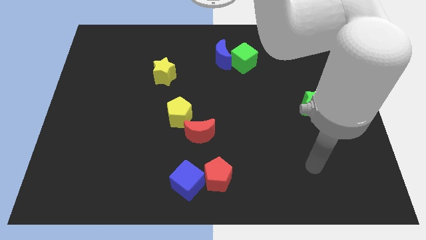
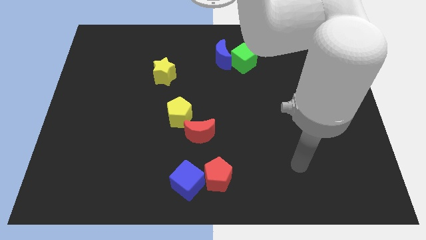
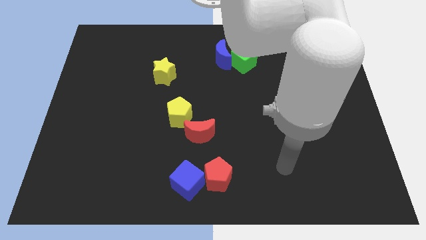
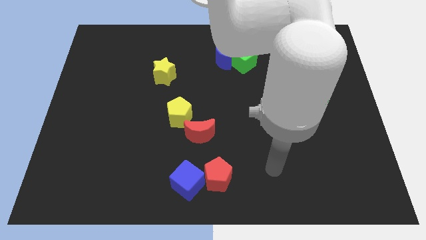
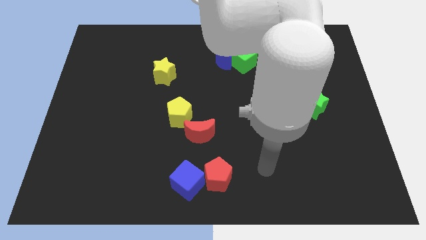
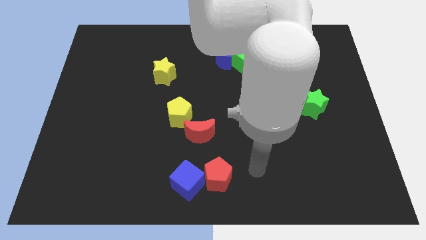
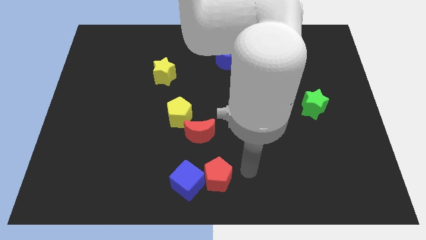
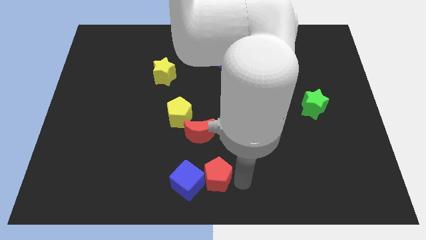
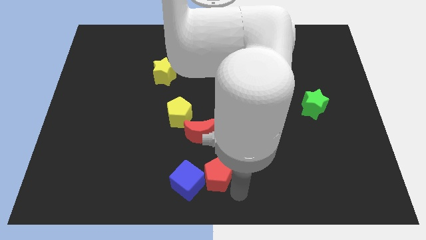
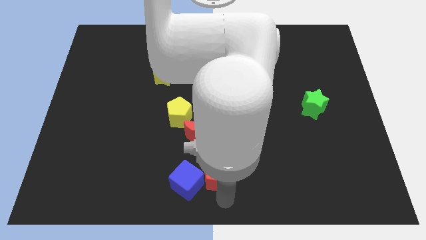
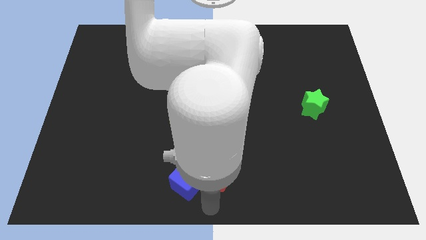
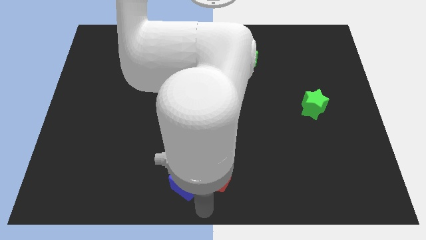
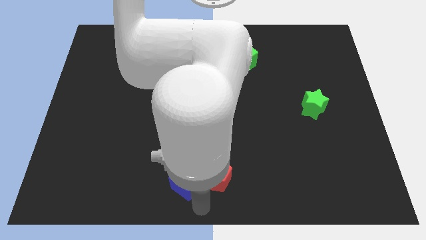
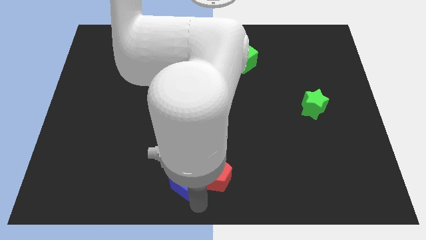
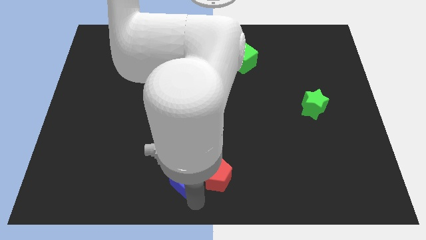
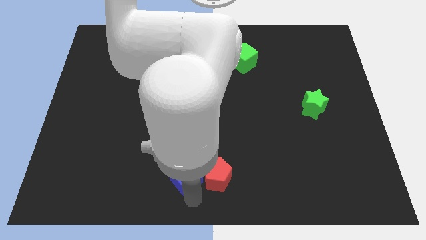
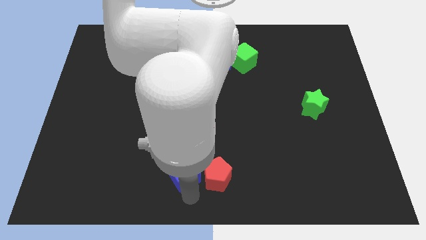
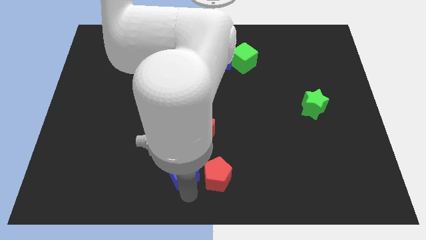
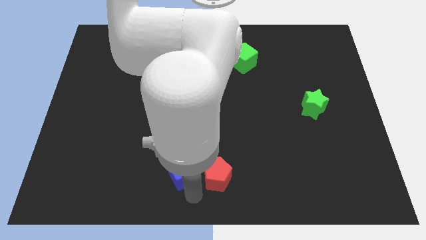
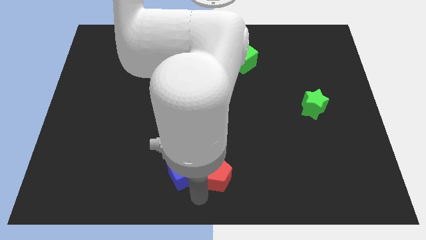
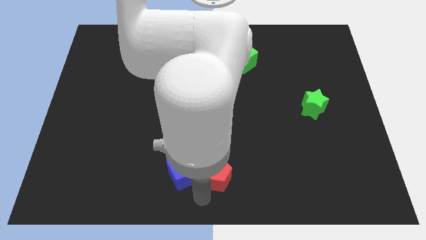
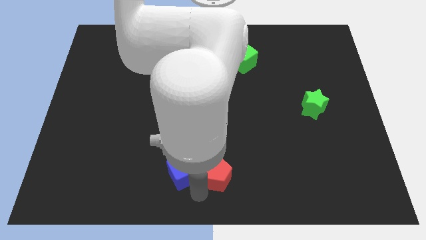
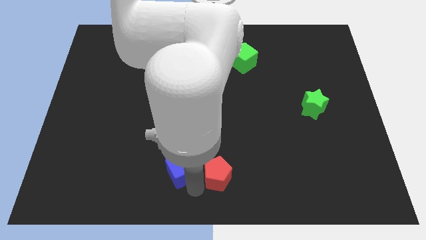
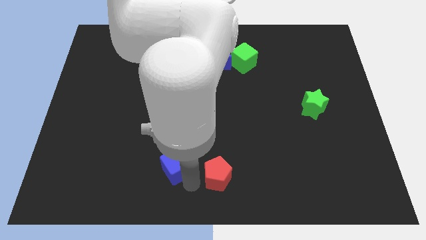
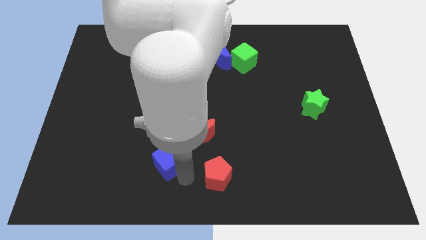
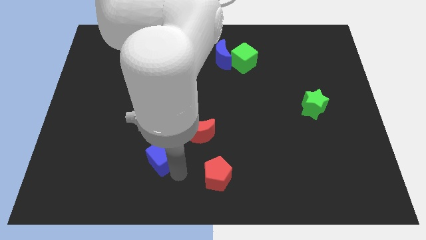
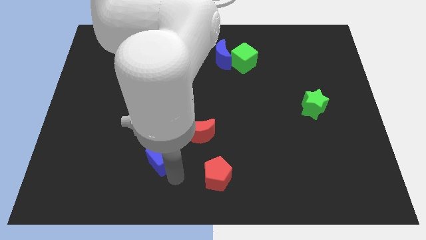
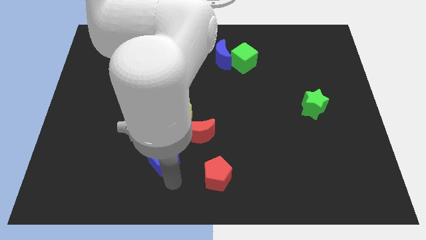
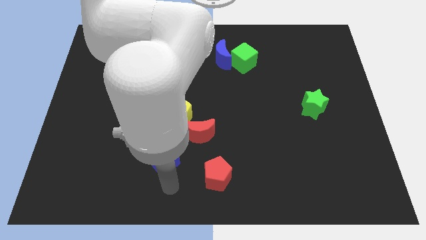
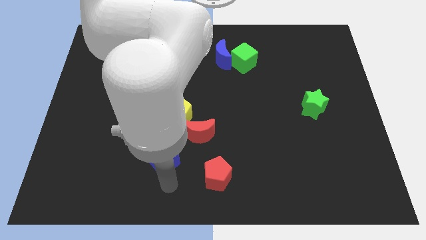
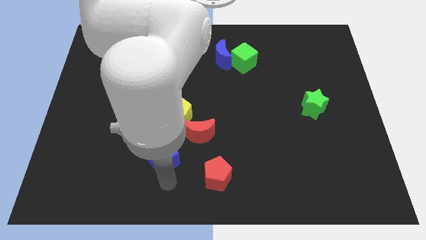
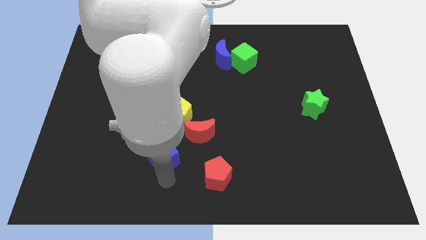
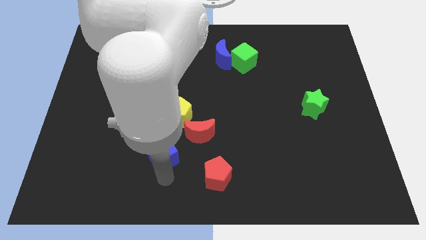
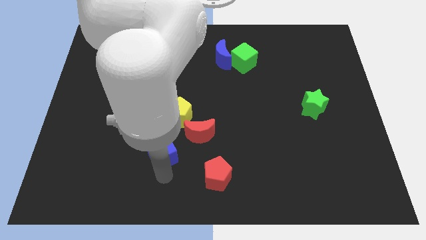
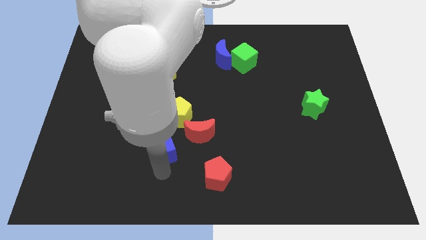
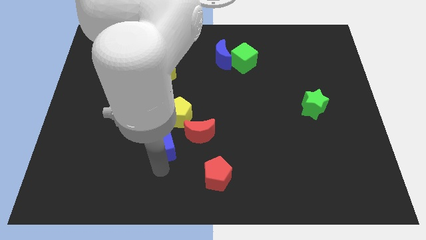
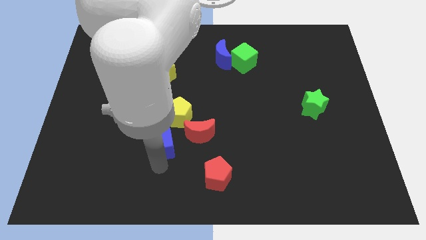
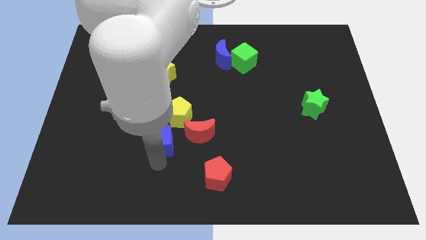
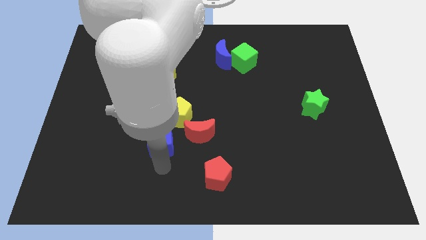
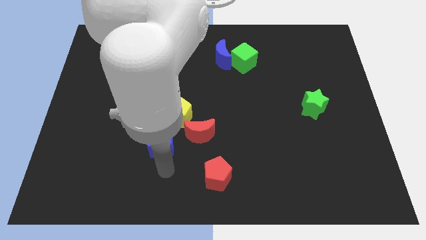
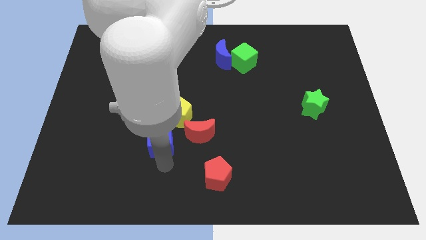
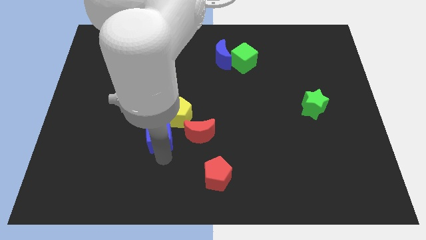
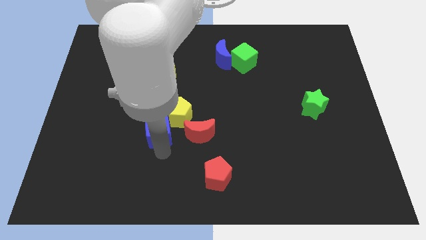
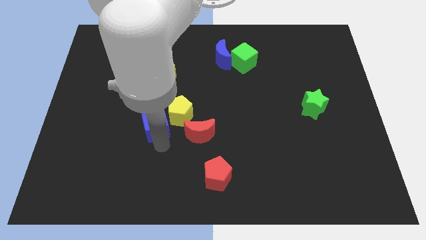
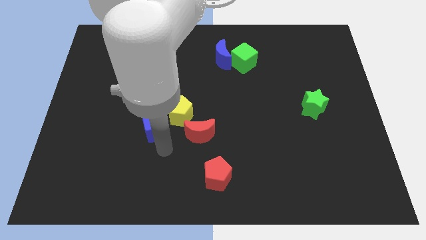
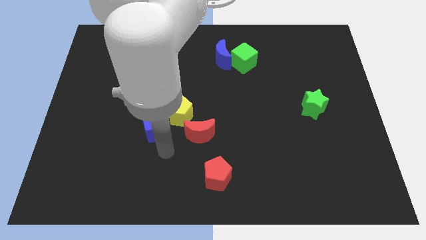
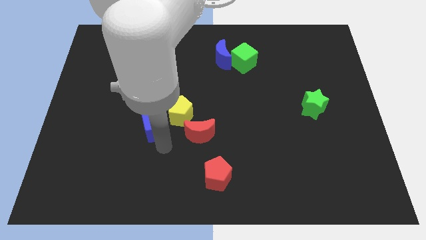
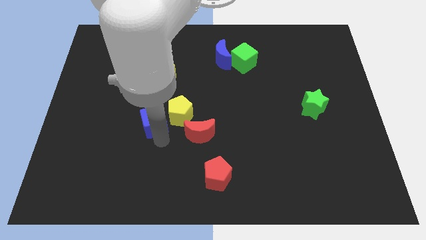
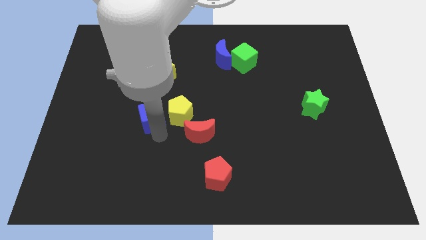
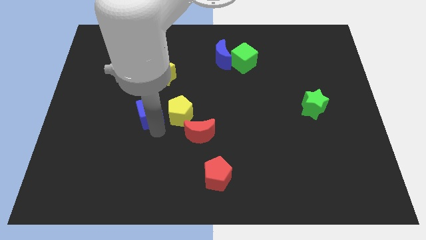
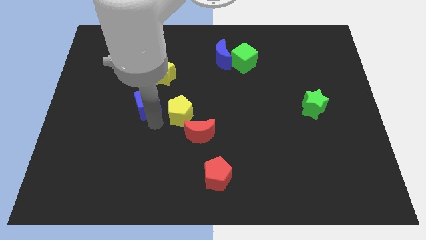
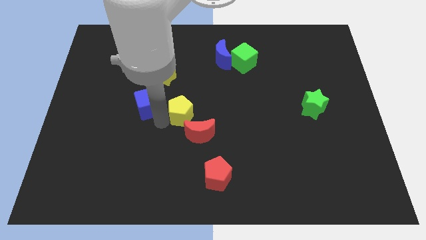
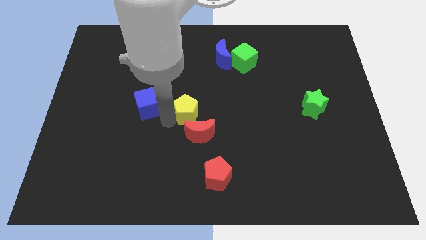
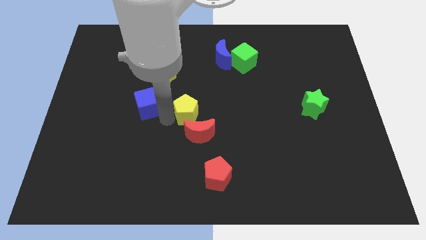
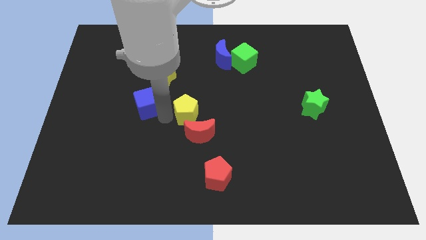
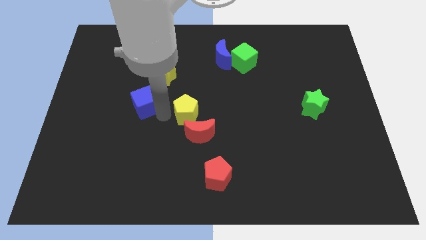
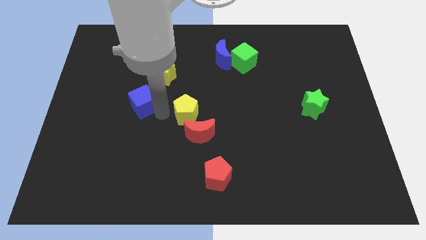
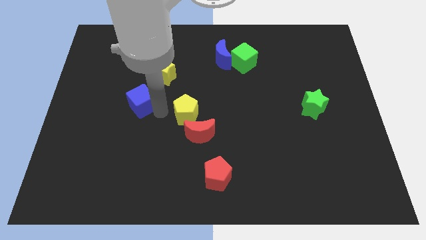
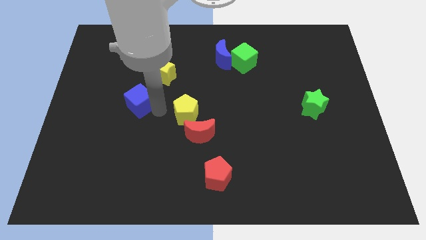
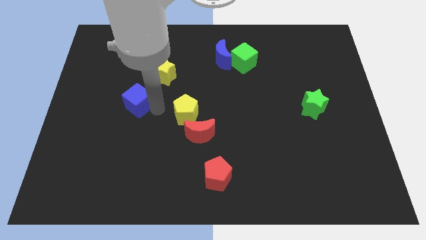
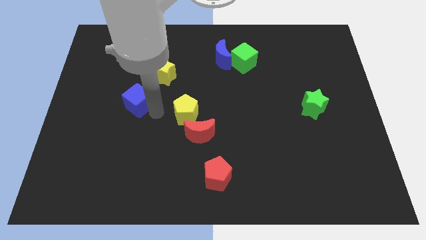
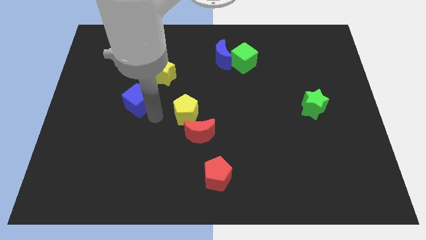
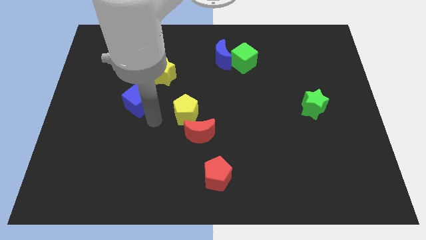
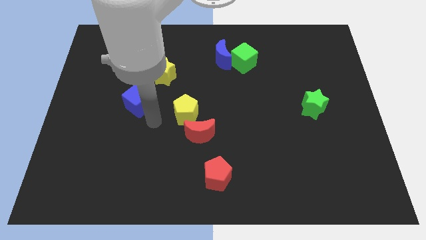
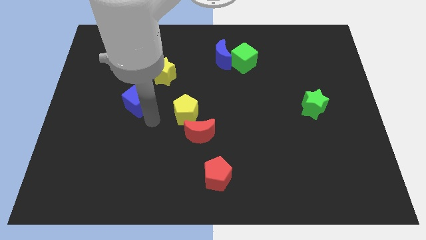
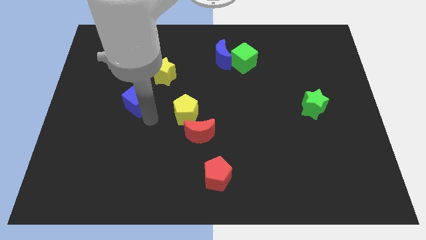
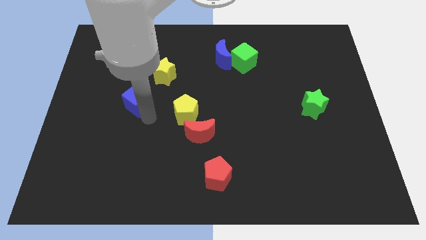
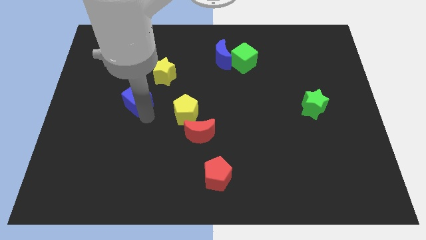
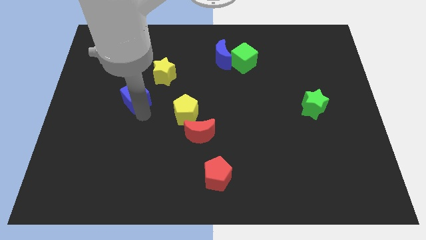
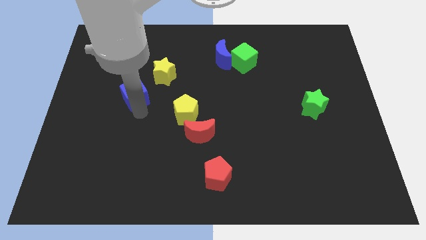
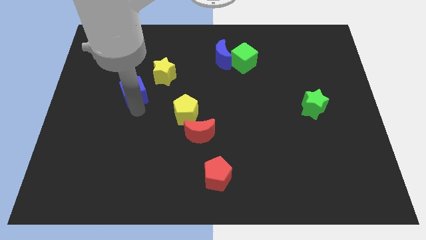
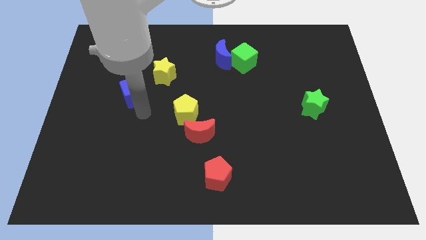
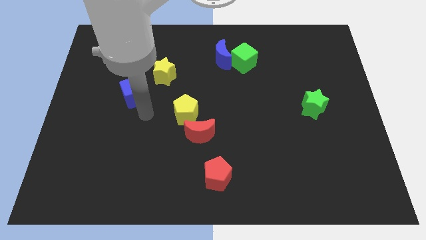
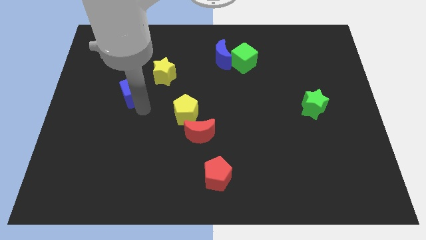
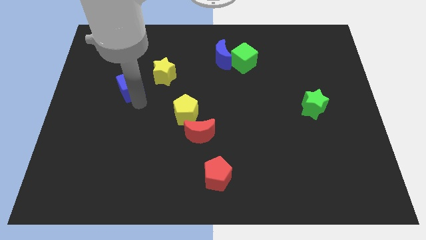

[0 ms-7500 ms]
push the blue cube to the left side of the yellow star
